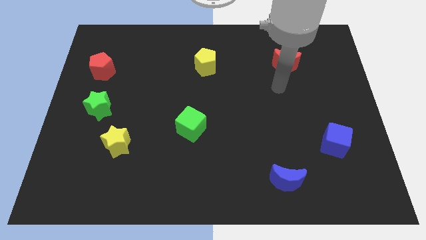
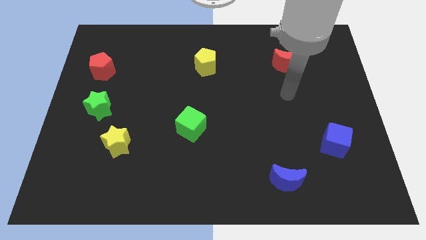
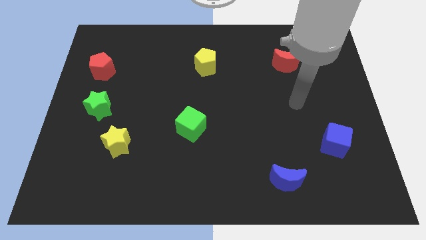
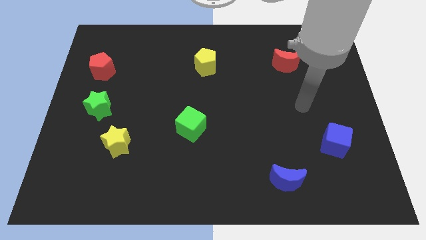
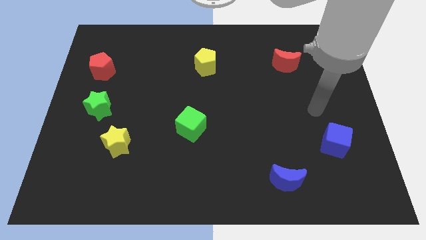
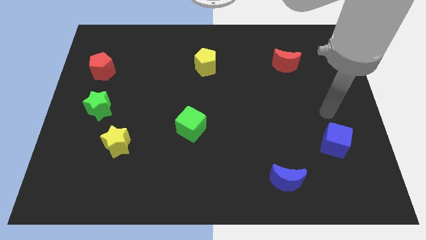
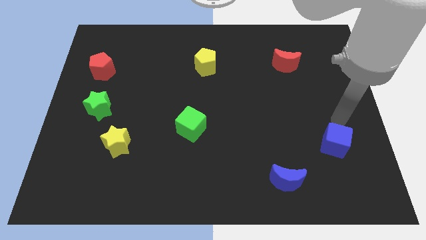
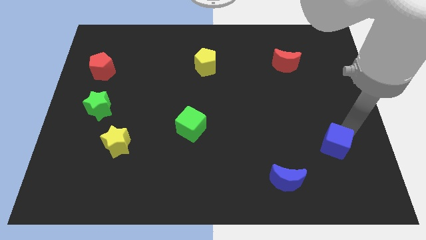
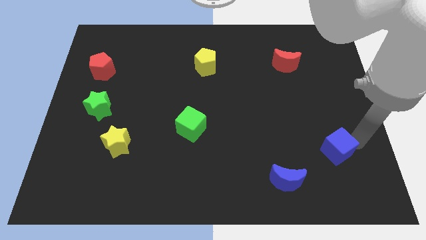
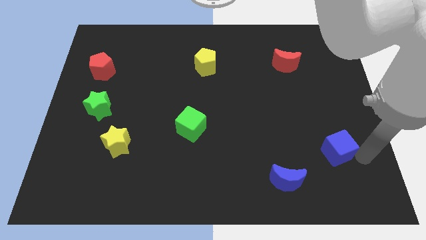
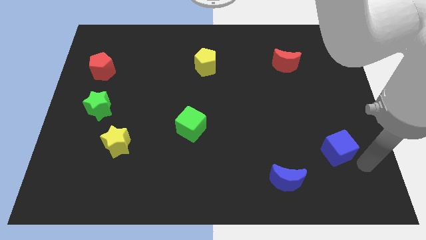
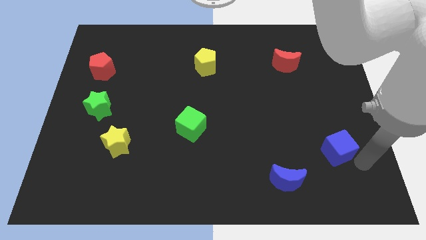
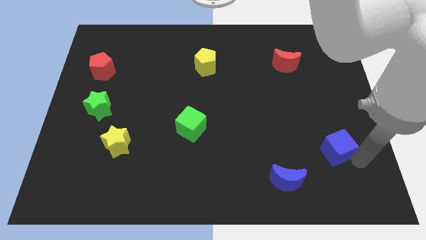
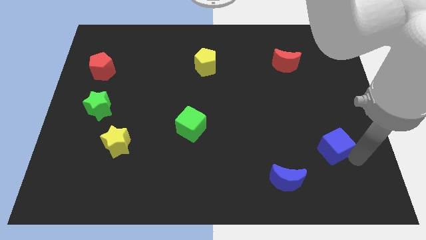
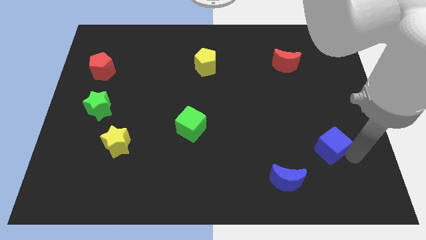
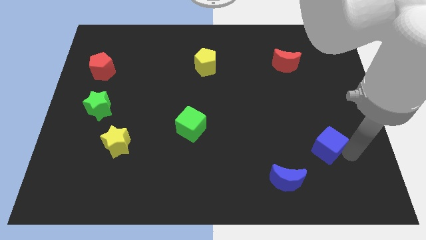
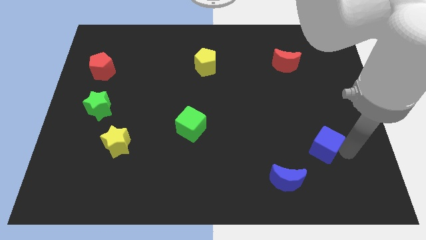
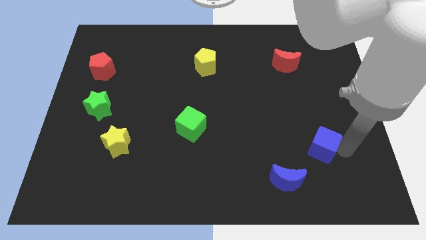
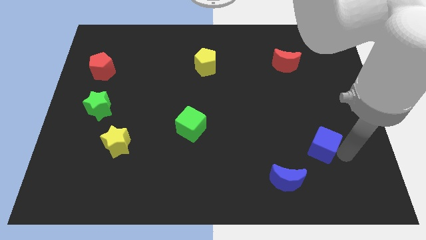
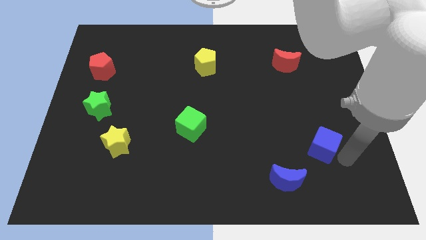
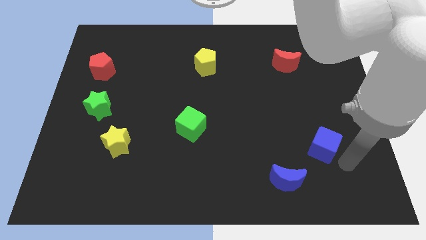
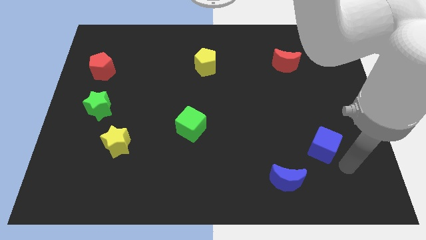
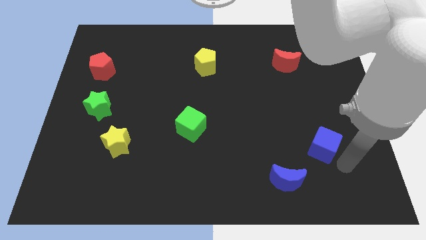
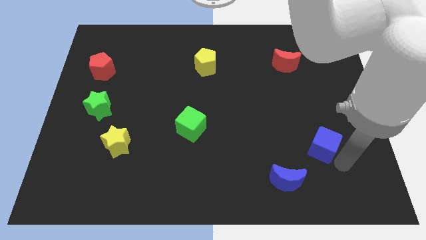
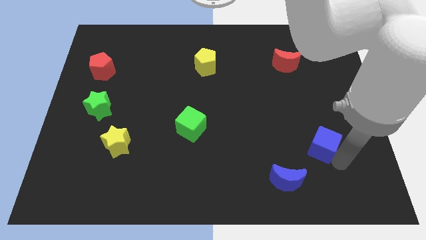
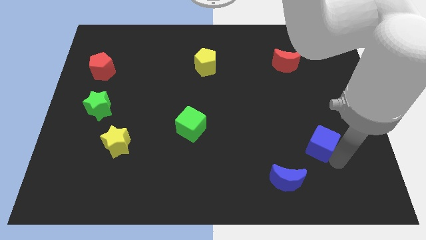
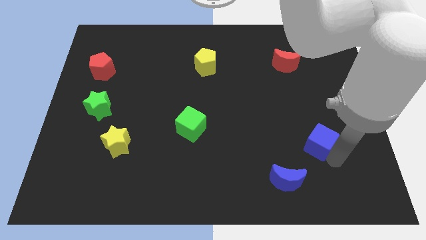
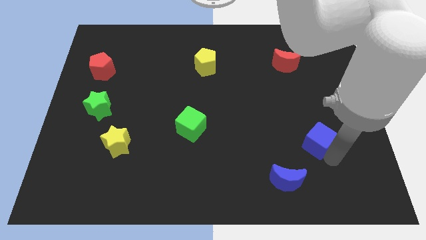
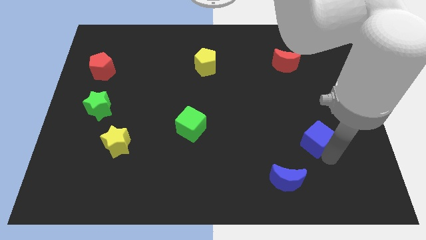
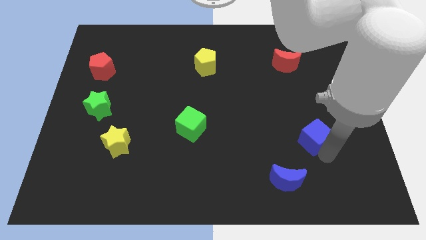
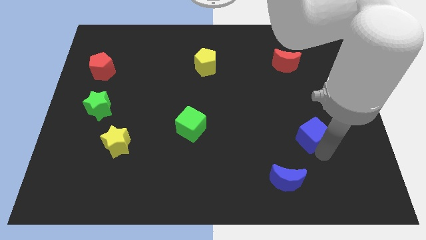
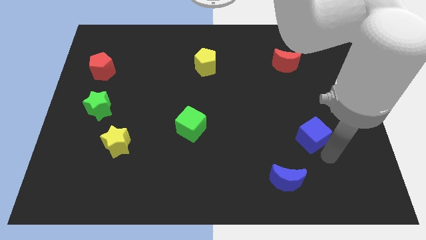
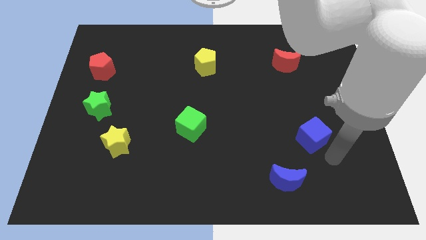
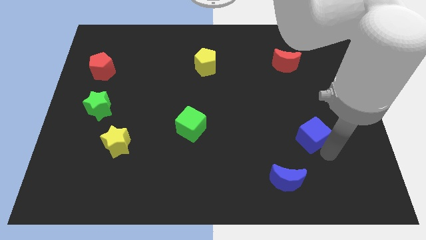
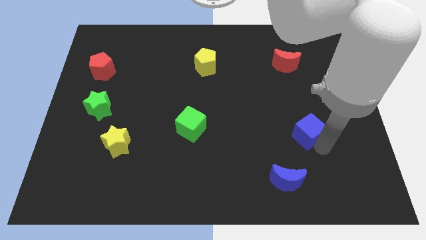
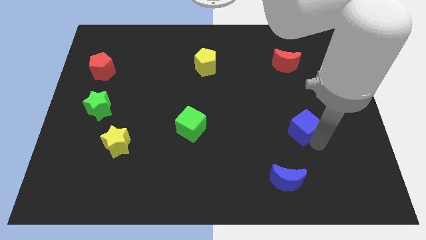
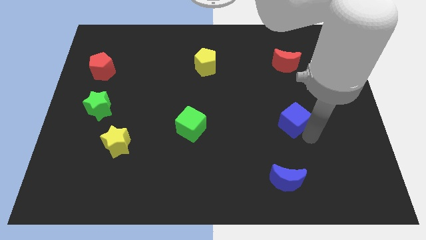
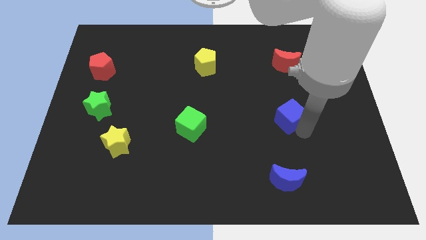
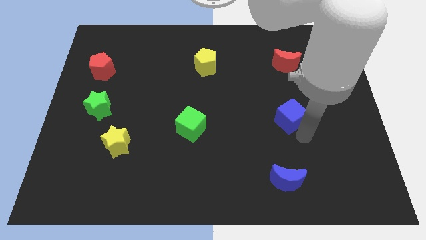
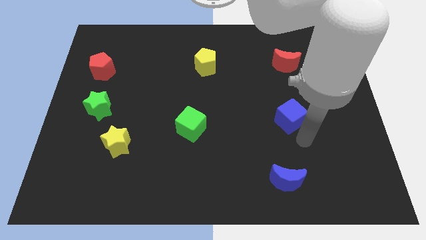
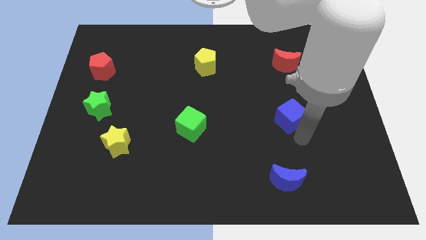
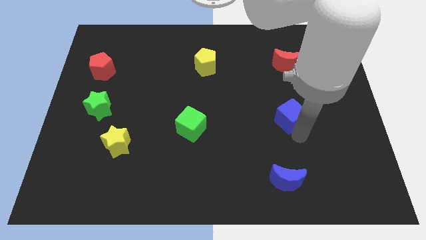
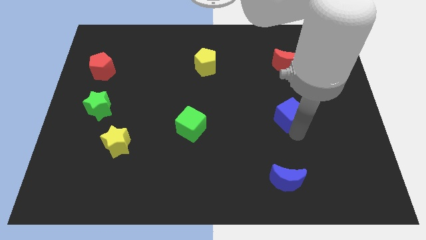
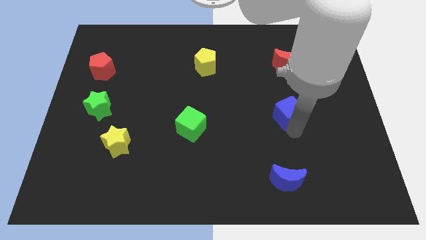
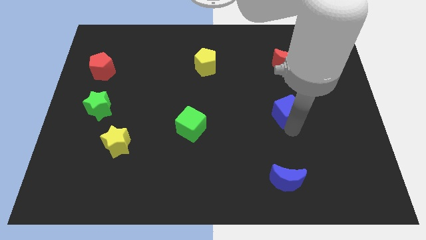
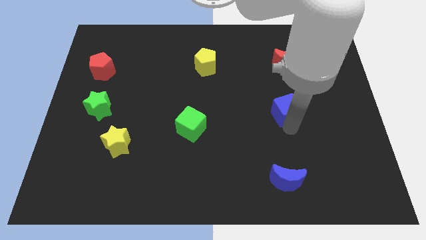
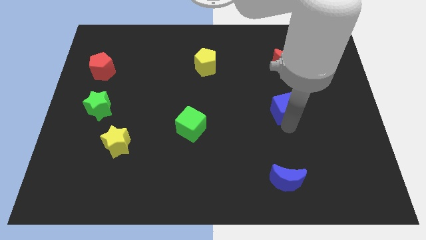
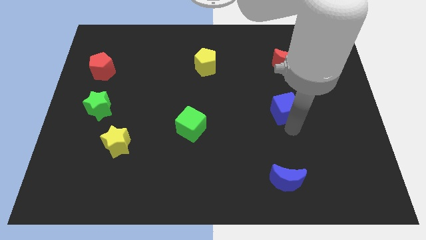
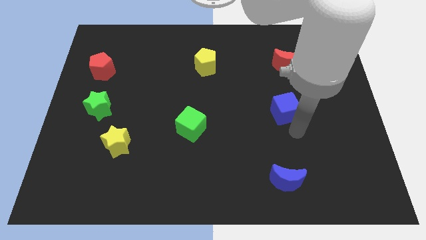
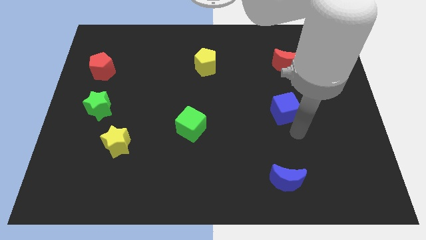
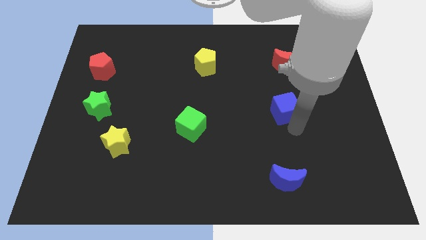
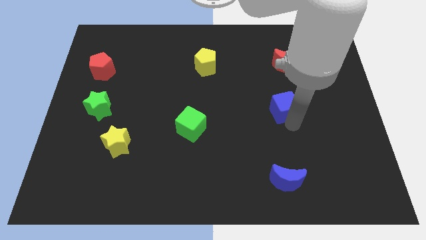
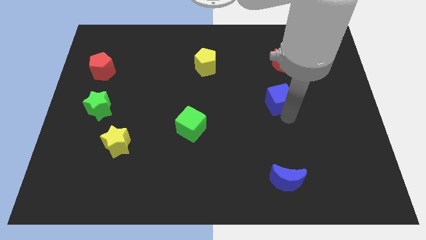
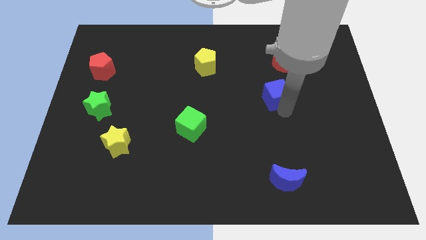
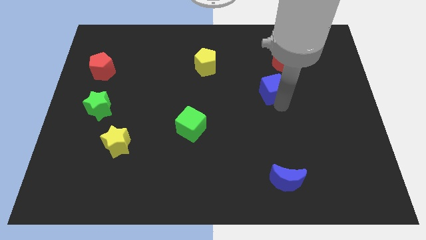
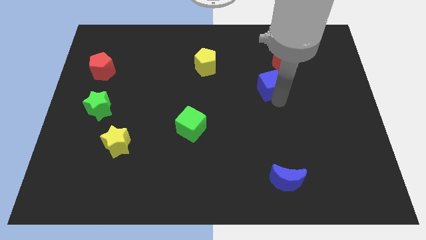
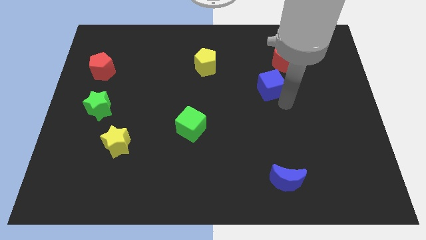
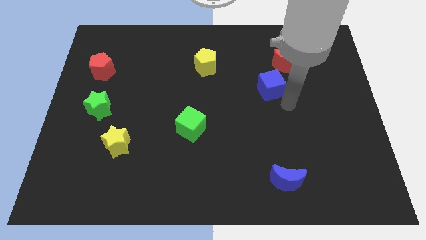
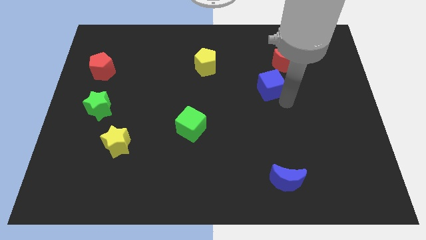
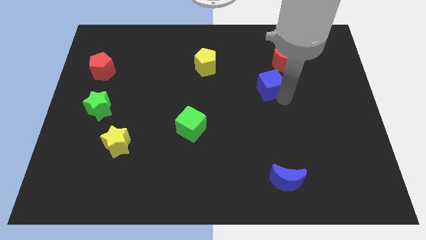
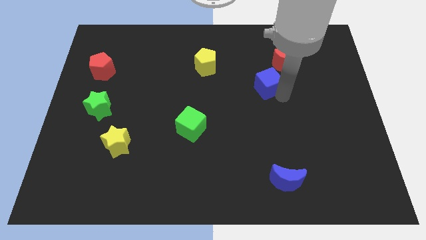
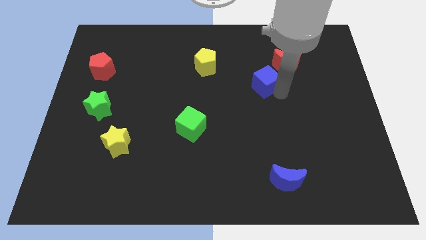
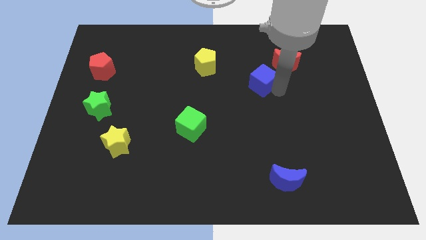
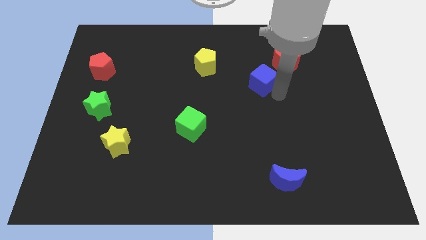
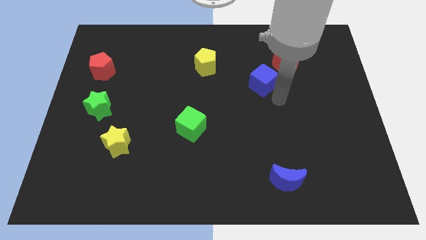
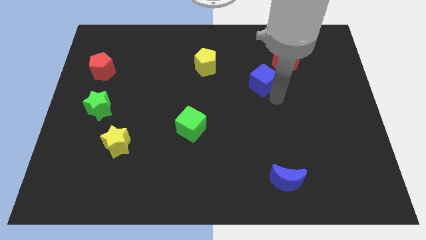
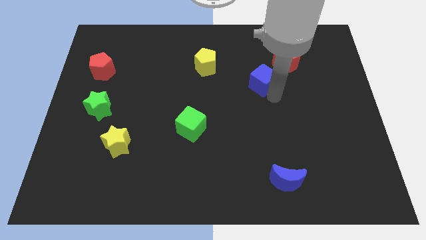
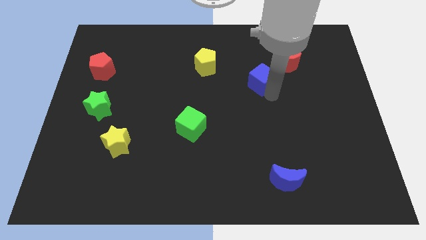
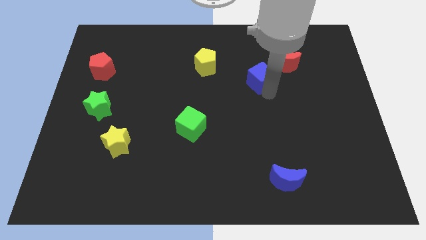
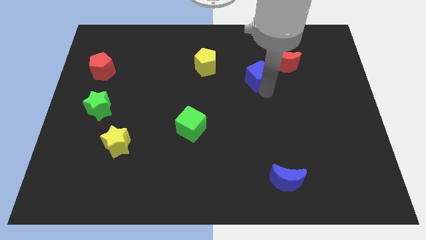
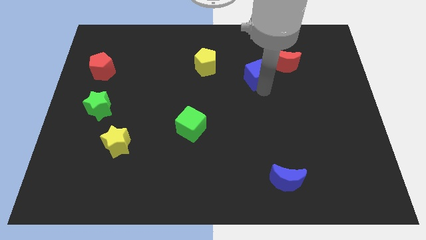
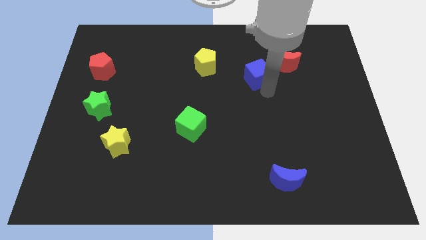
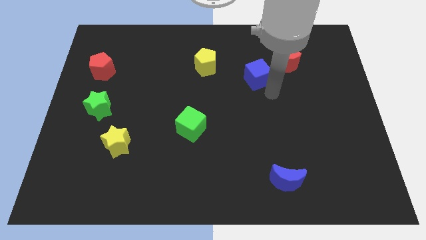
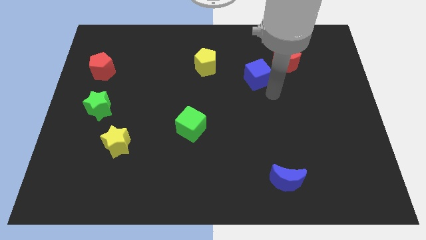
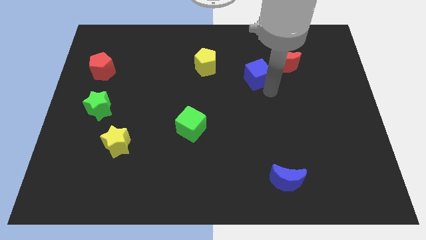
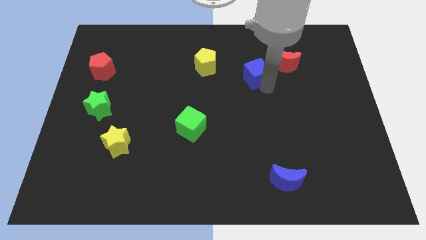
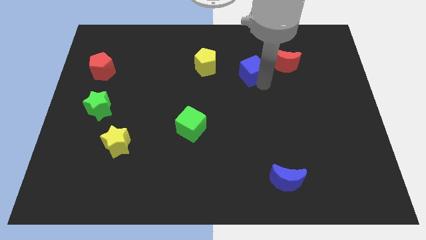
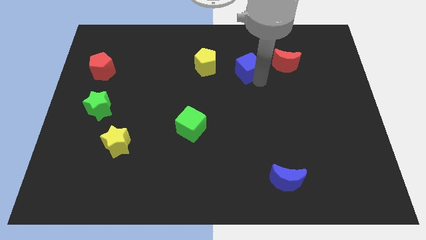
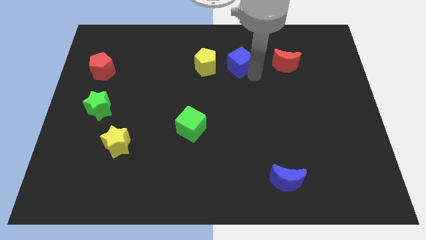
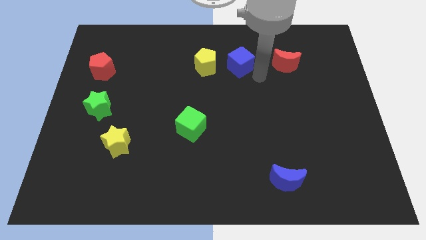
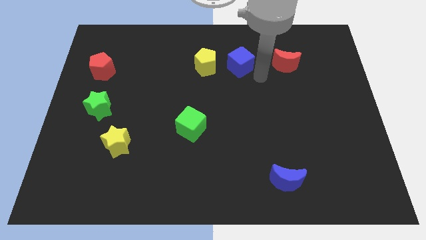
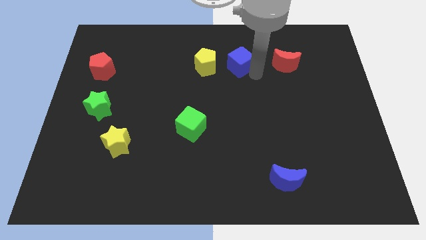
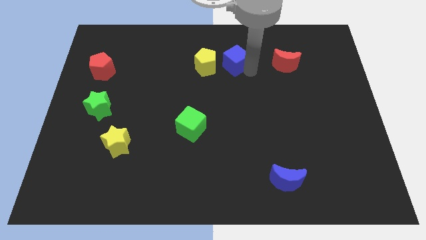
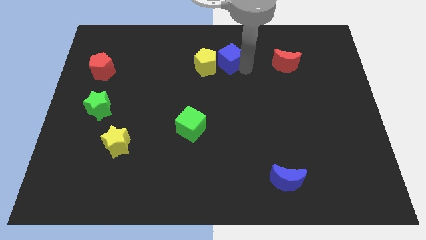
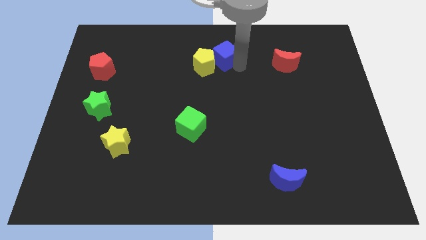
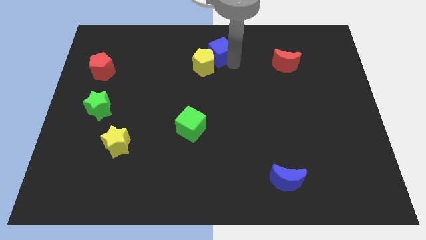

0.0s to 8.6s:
move the blue cube to the top side
